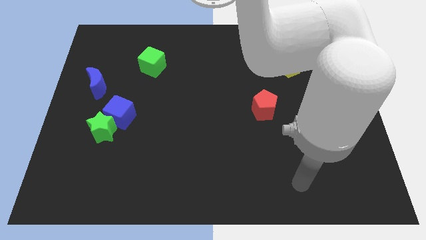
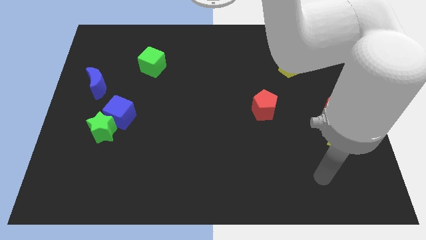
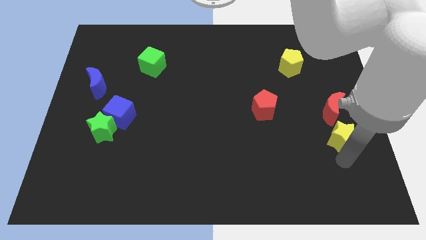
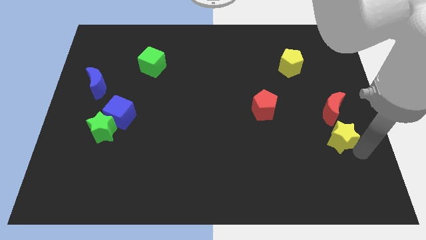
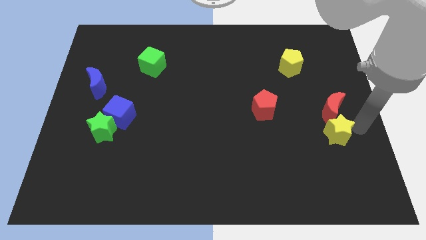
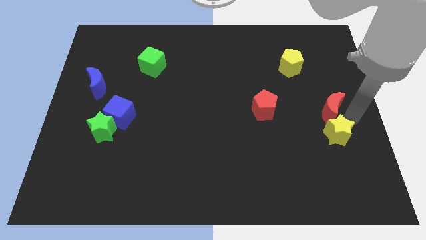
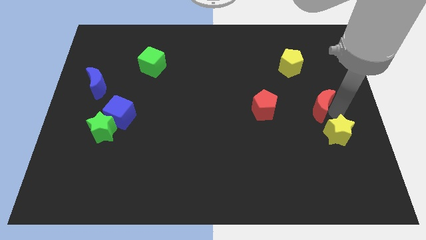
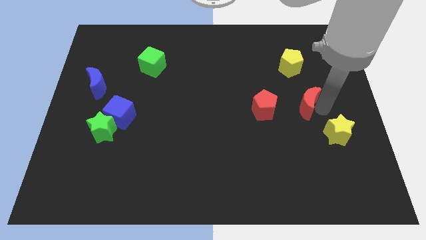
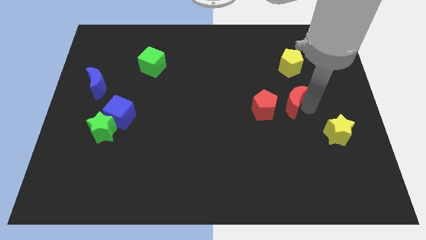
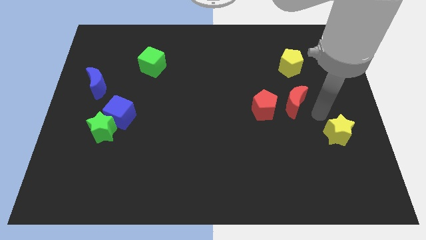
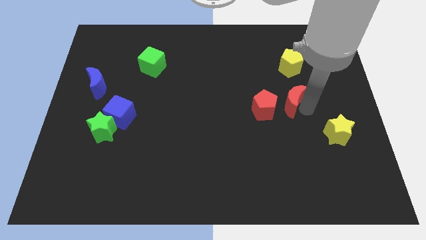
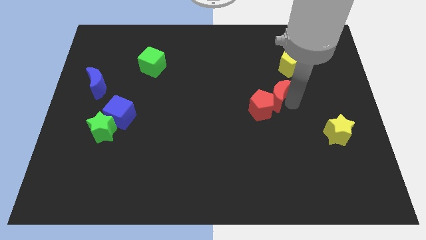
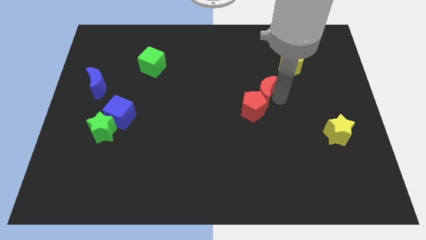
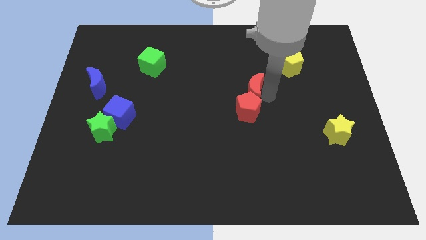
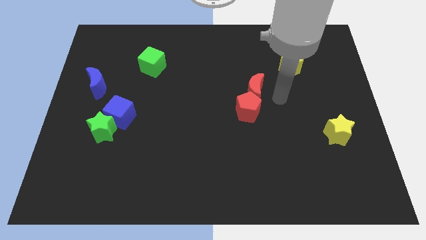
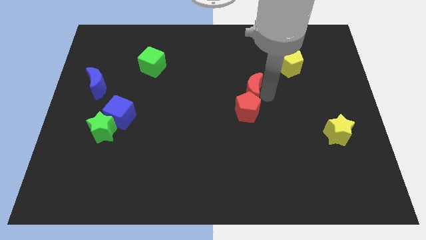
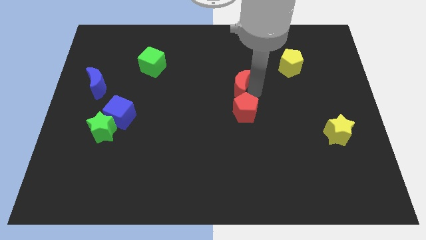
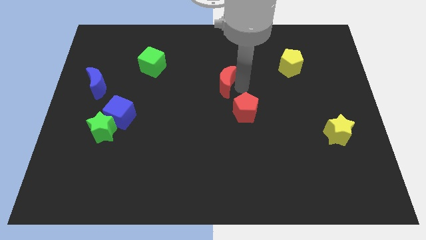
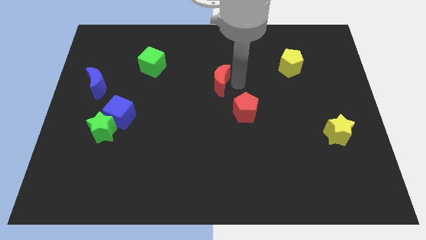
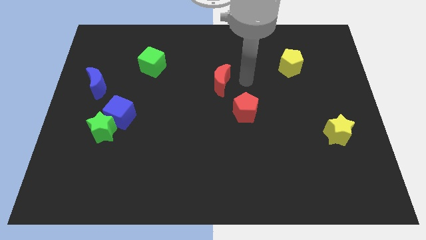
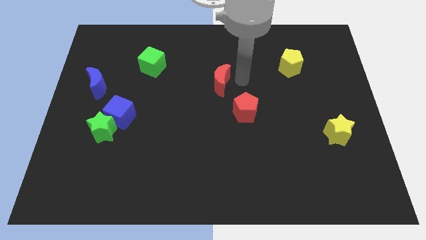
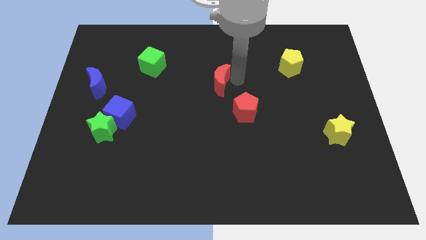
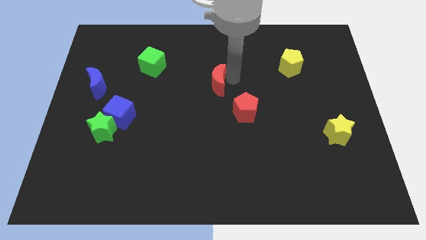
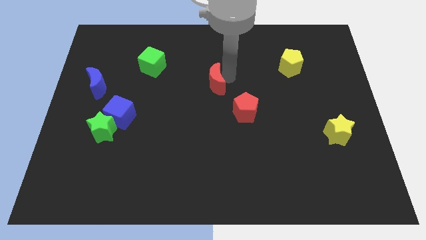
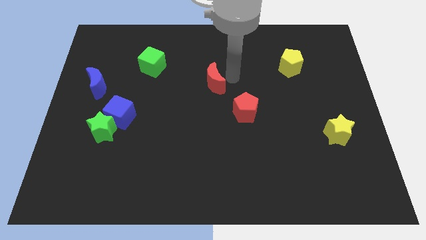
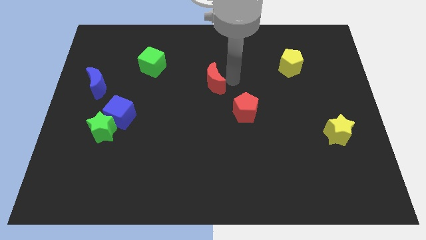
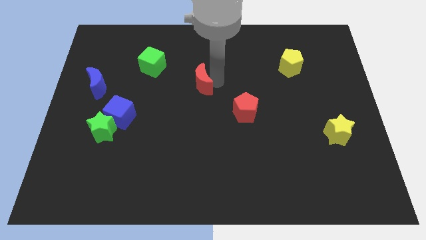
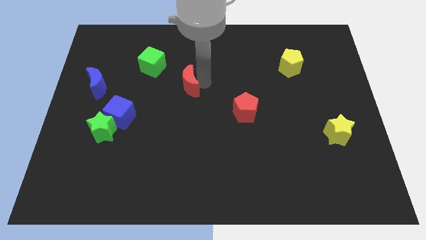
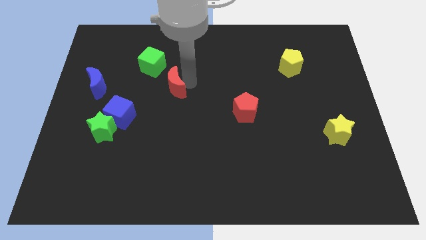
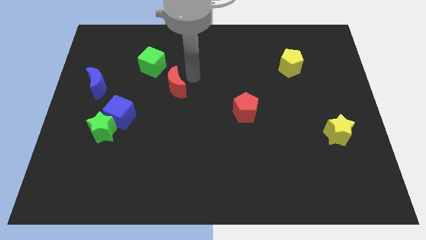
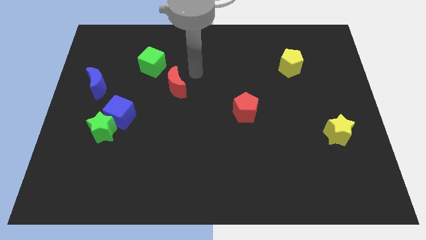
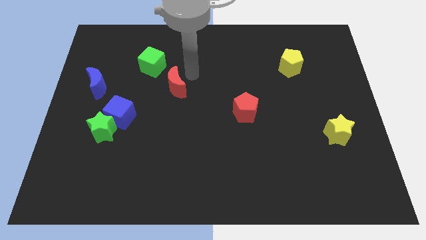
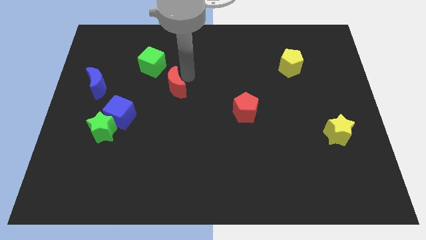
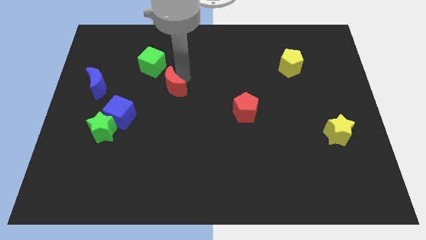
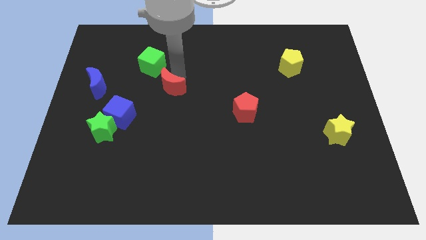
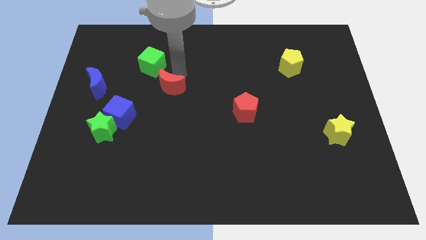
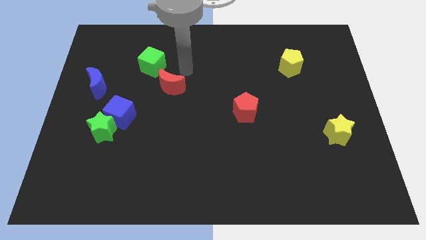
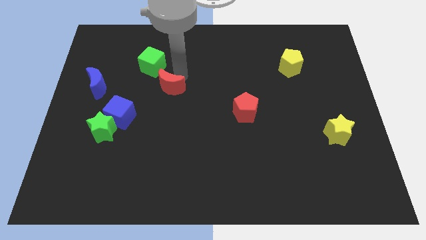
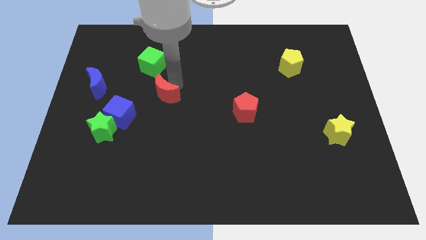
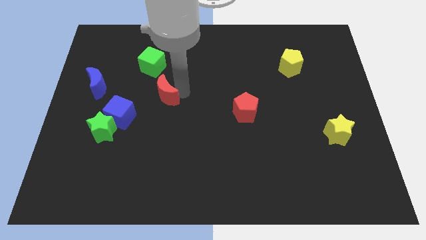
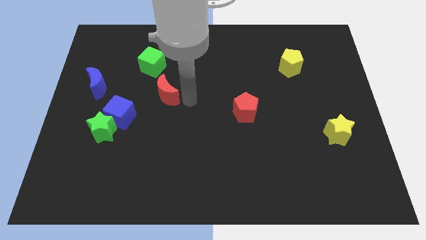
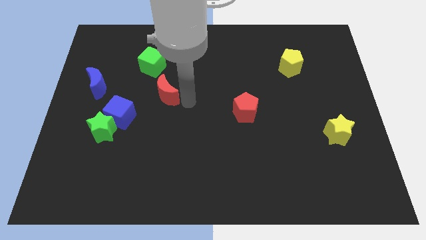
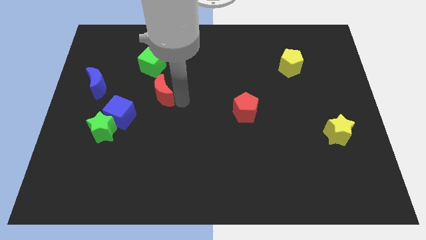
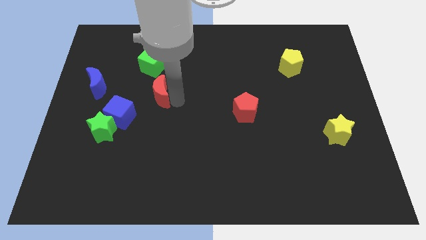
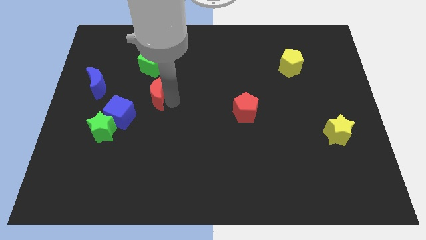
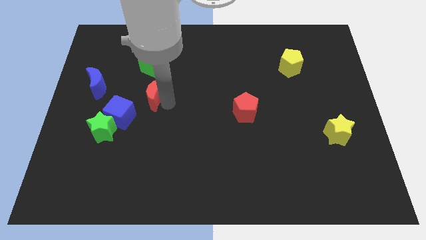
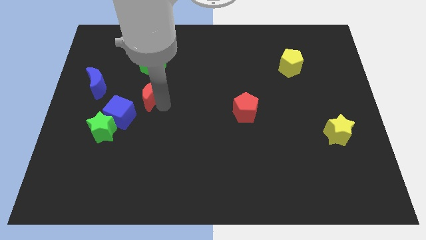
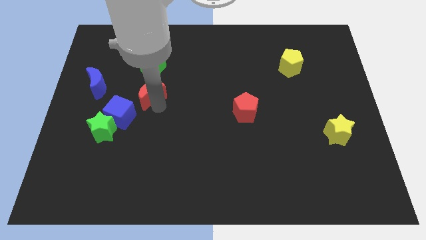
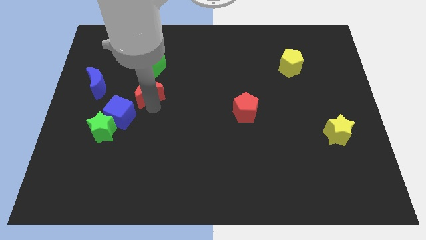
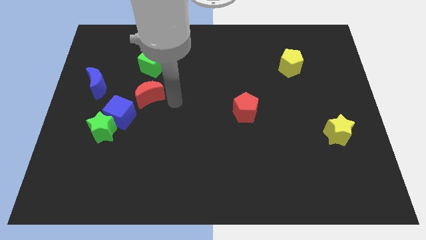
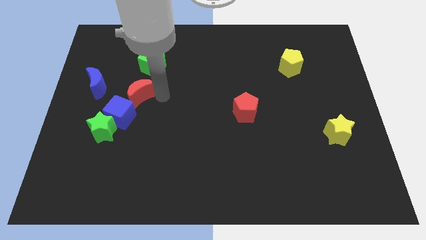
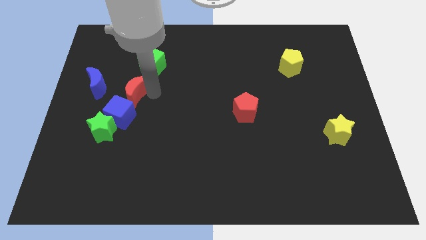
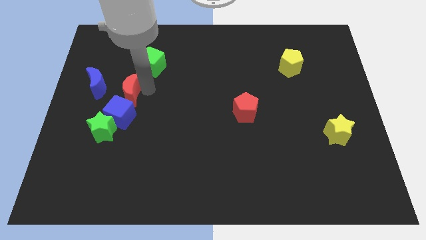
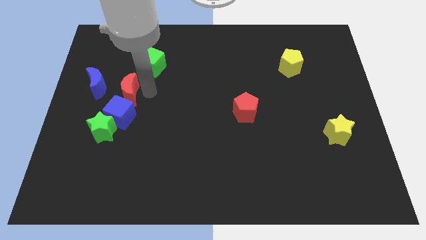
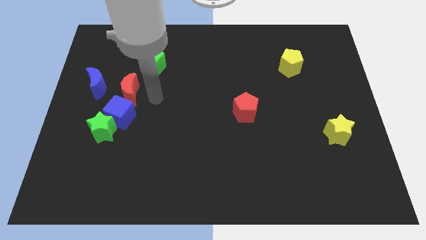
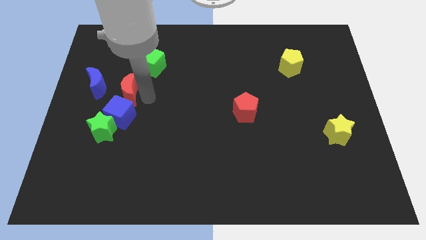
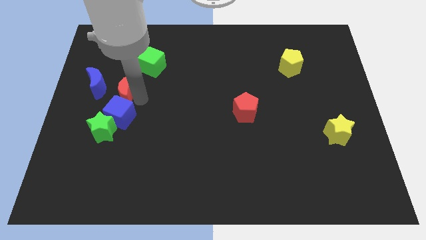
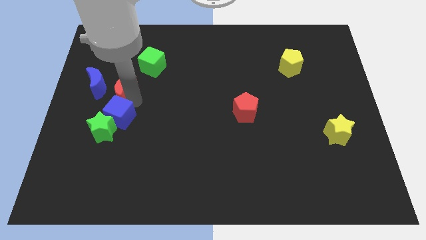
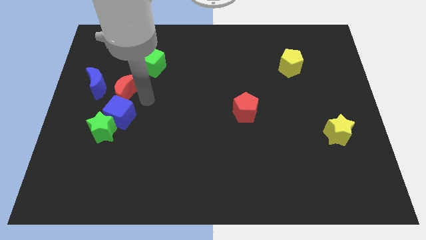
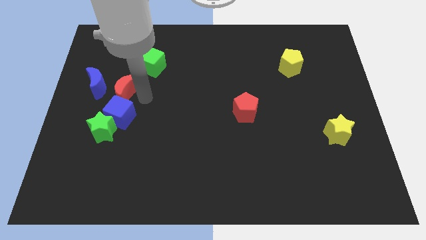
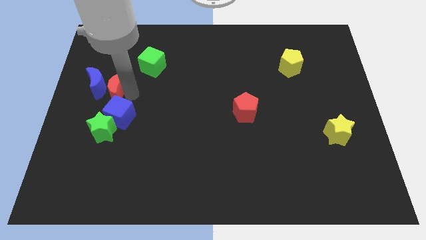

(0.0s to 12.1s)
slide the red moon to the blue moon

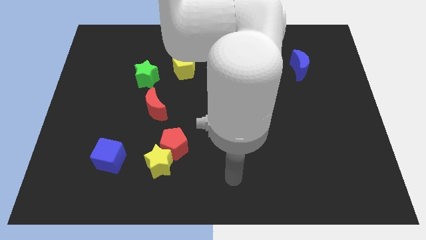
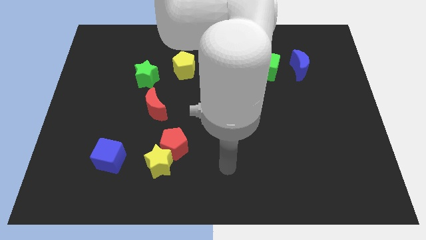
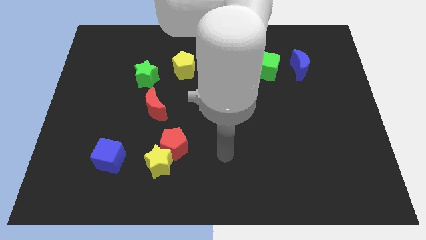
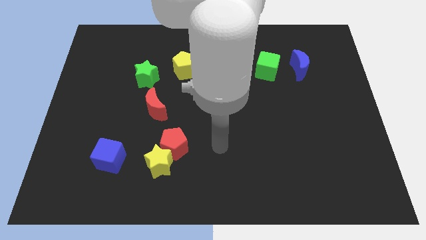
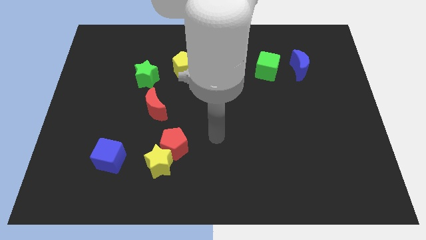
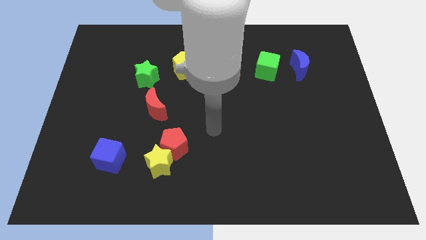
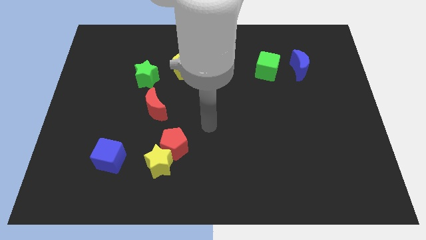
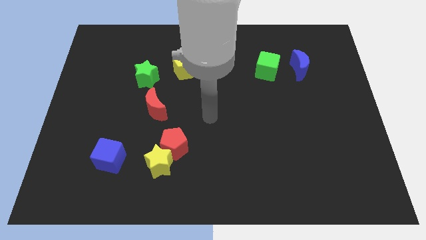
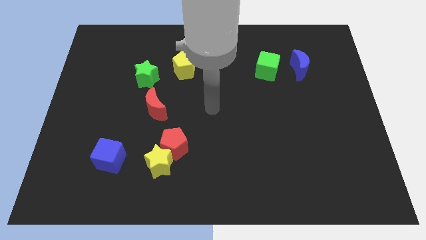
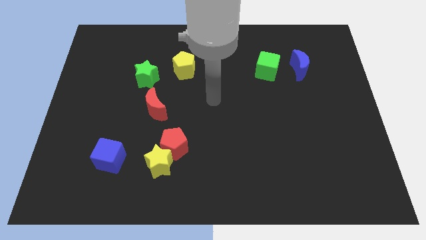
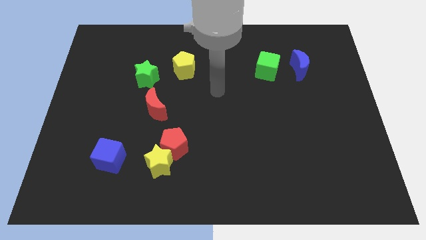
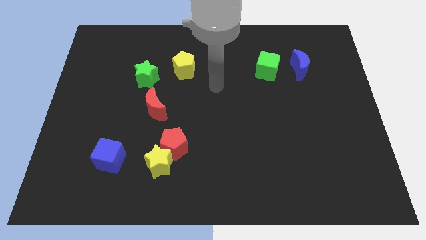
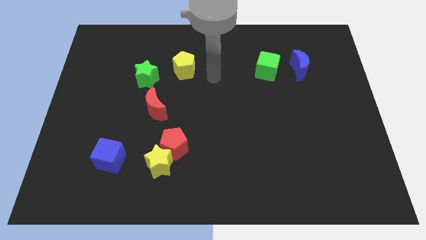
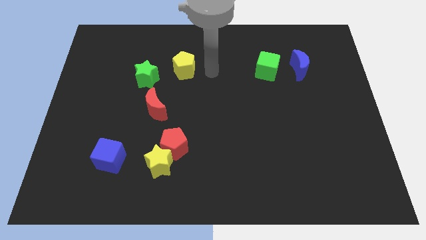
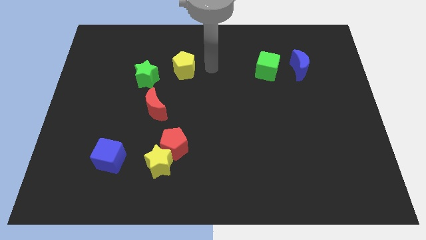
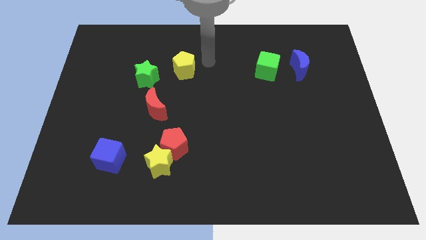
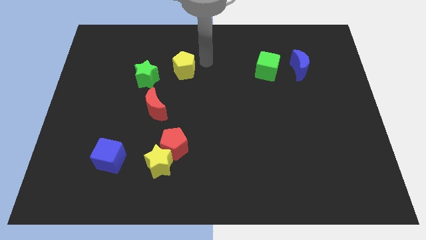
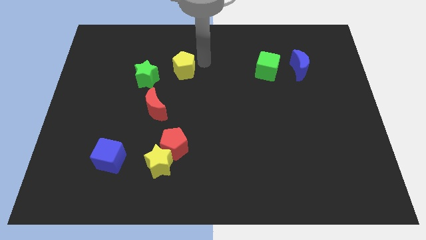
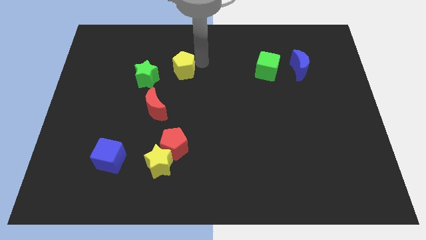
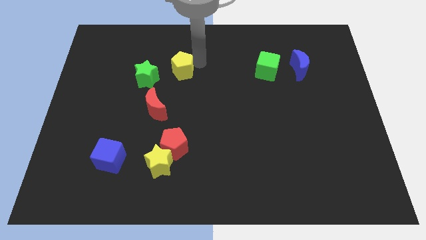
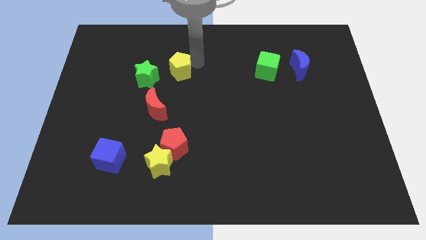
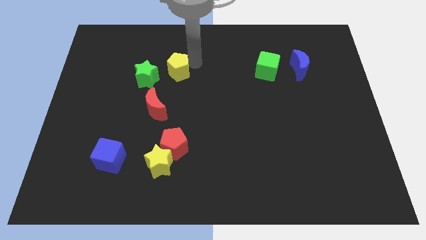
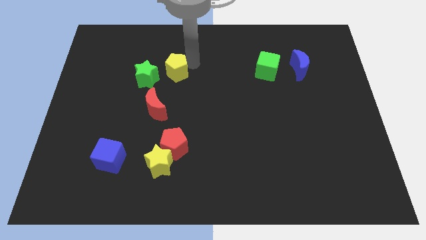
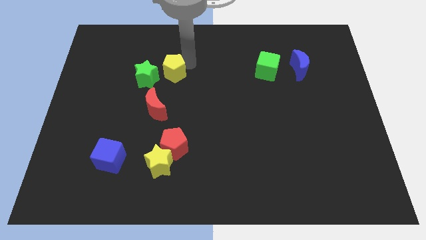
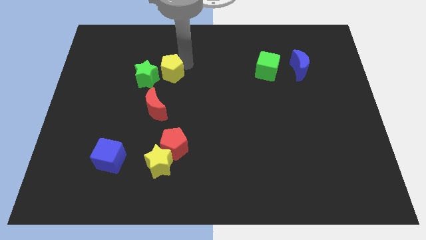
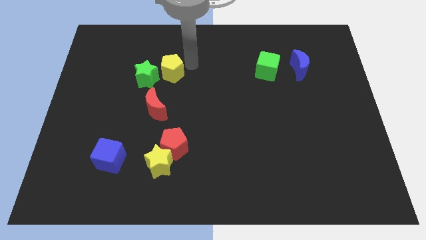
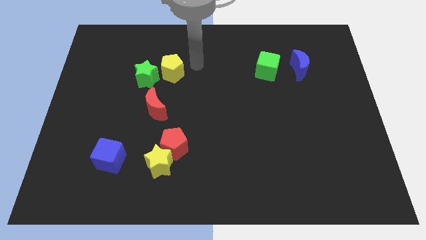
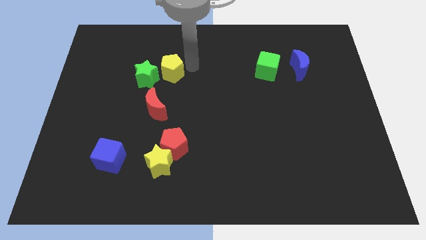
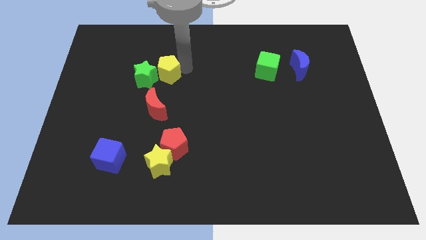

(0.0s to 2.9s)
put the yellow pentagon next to the green star
